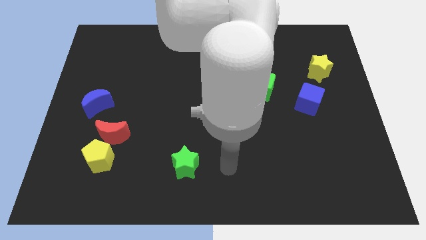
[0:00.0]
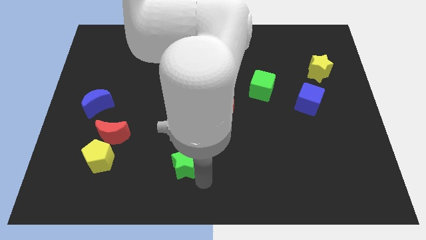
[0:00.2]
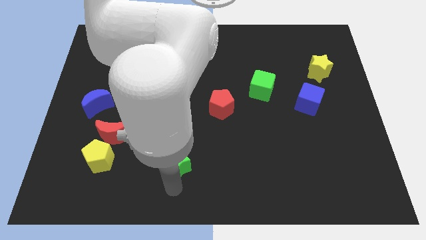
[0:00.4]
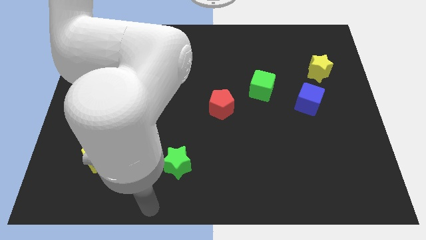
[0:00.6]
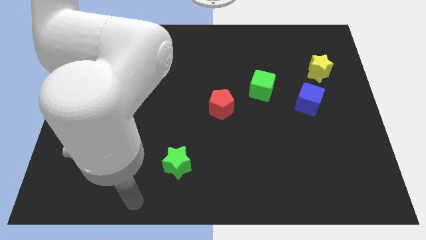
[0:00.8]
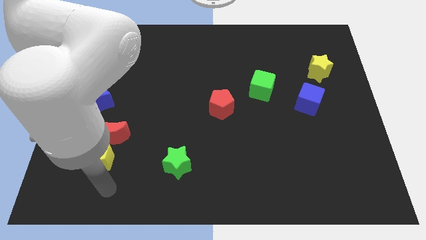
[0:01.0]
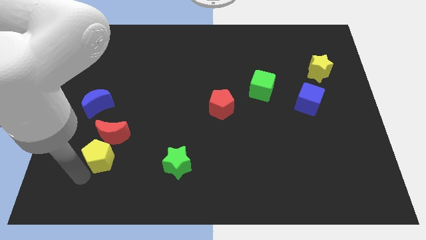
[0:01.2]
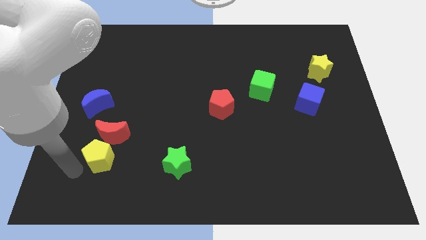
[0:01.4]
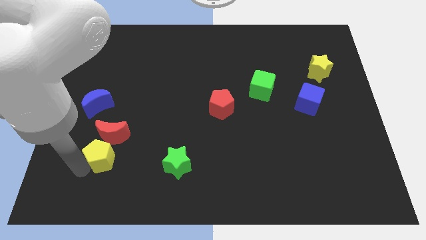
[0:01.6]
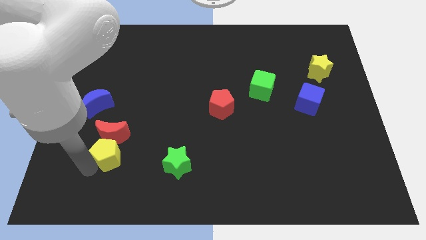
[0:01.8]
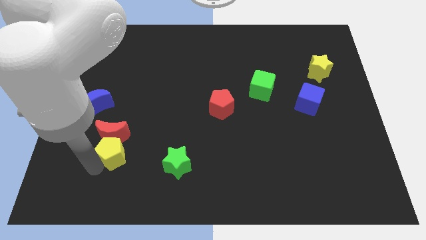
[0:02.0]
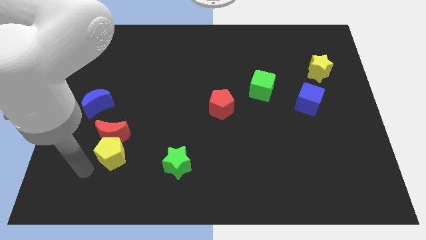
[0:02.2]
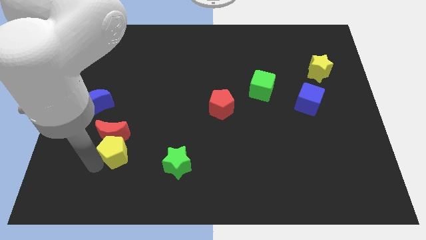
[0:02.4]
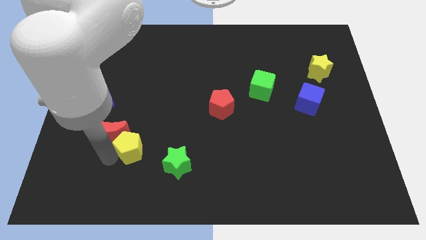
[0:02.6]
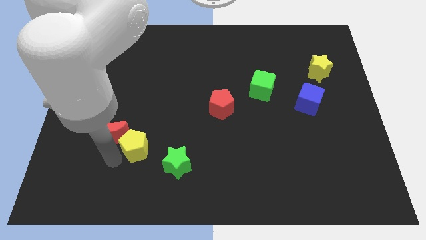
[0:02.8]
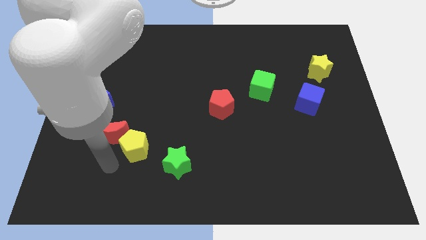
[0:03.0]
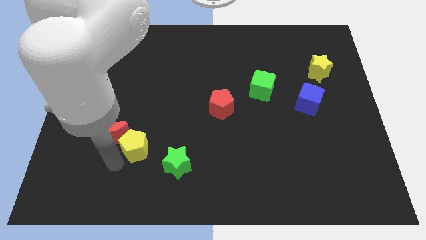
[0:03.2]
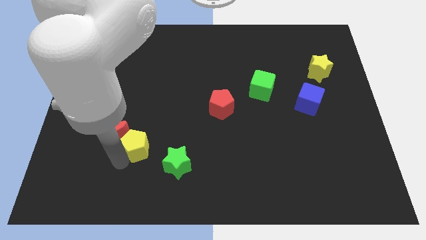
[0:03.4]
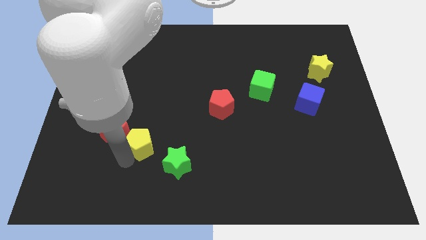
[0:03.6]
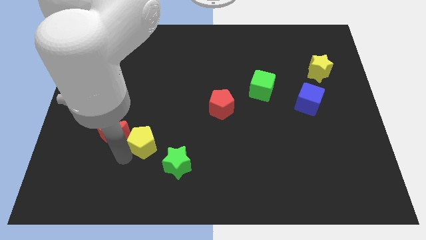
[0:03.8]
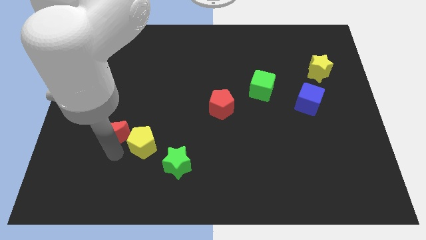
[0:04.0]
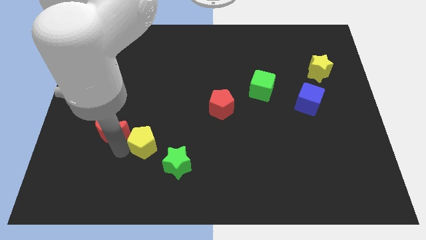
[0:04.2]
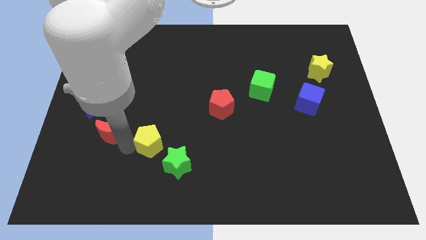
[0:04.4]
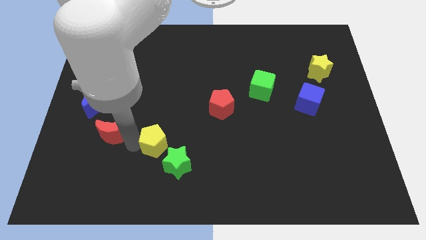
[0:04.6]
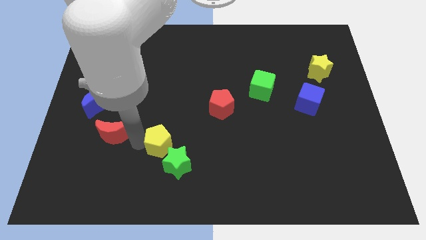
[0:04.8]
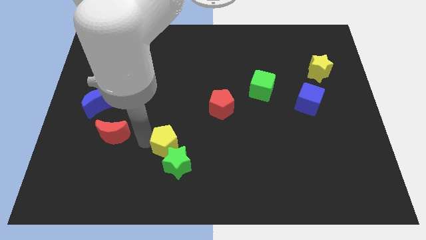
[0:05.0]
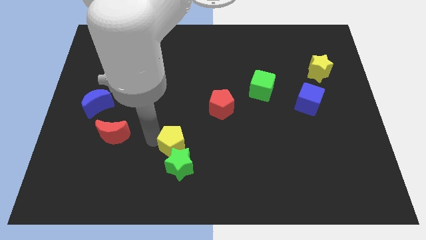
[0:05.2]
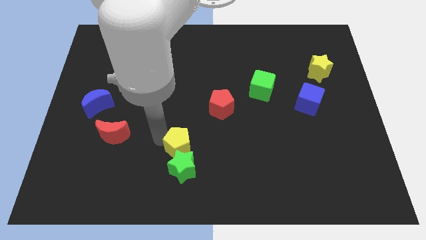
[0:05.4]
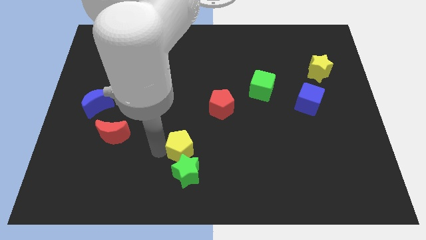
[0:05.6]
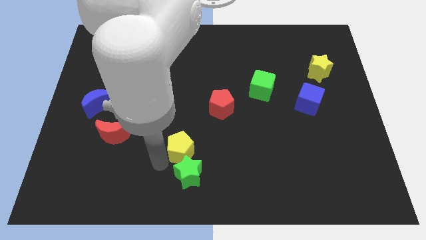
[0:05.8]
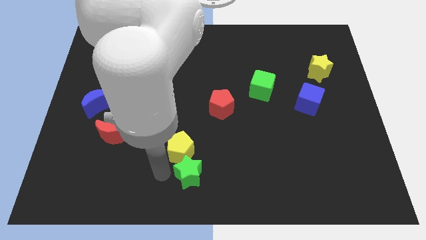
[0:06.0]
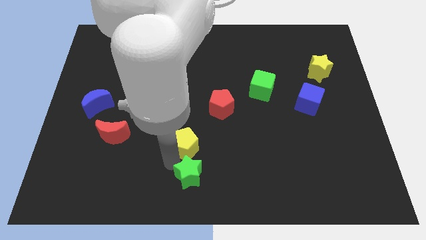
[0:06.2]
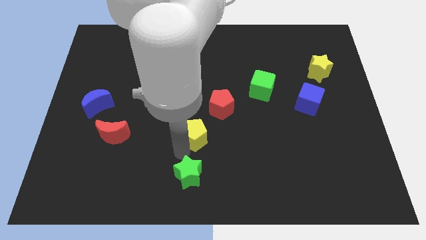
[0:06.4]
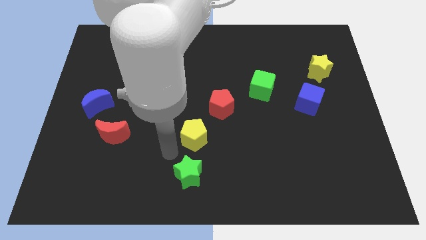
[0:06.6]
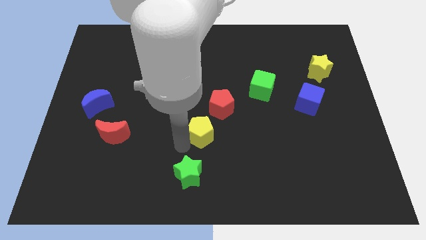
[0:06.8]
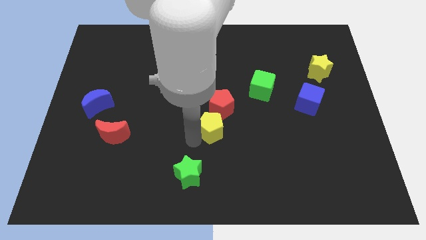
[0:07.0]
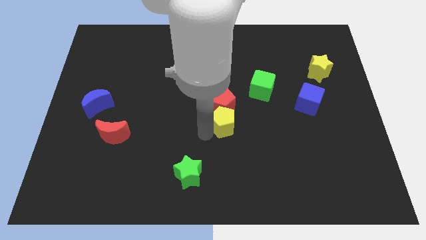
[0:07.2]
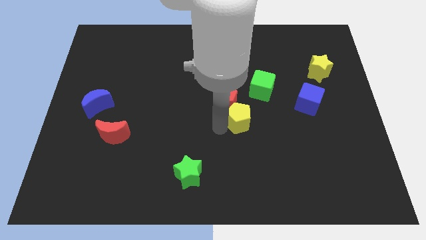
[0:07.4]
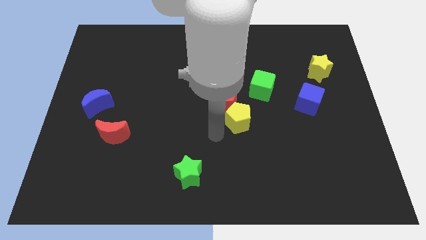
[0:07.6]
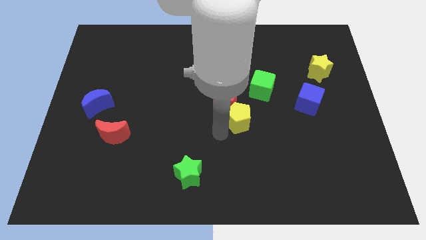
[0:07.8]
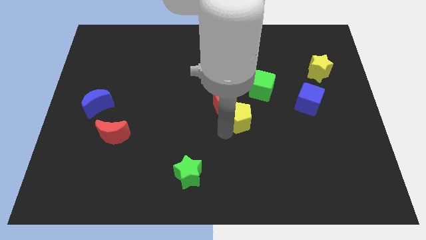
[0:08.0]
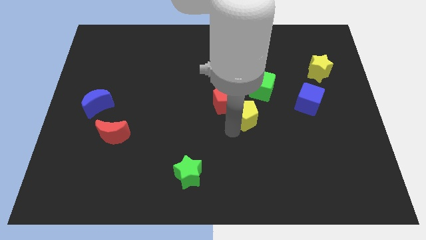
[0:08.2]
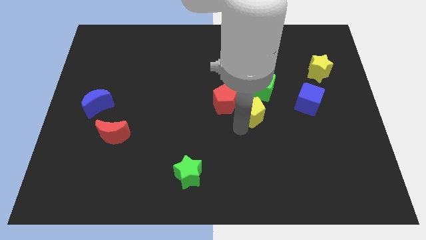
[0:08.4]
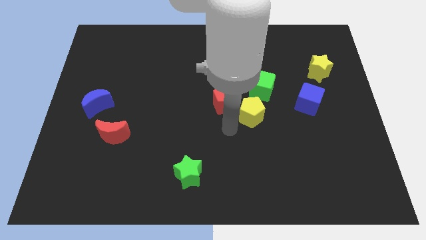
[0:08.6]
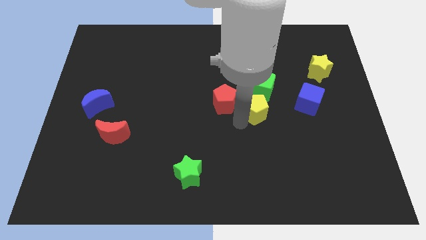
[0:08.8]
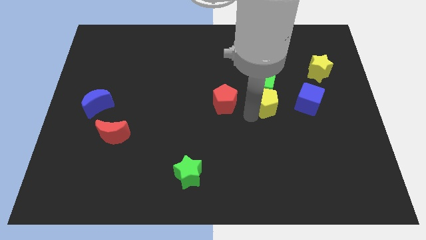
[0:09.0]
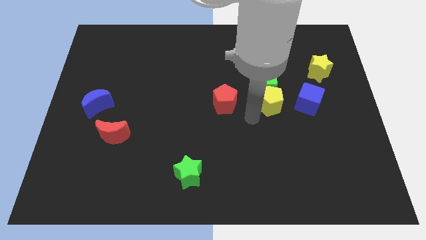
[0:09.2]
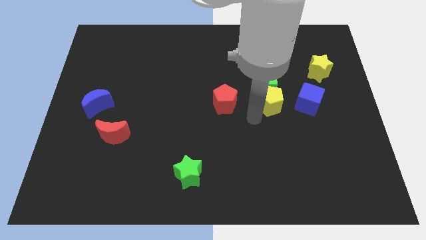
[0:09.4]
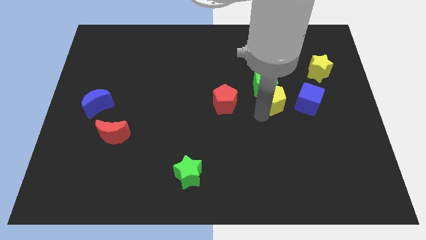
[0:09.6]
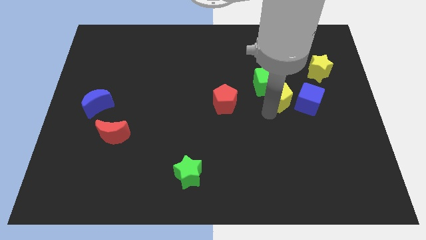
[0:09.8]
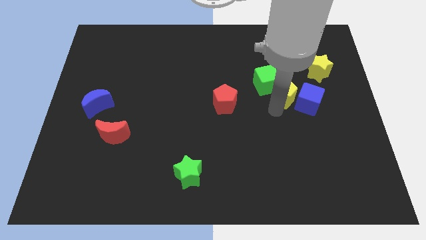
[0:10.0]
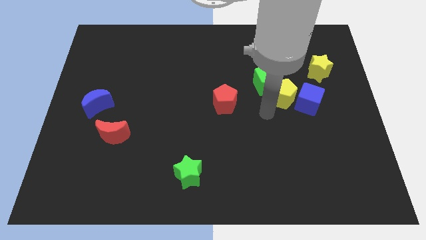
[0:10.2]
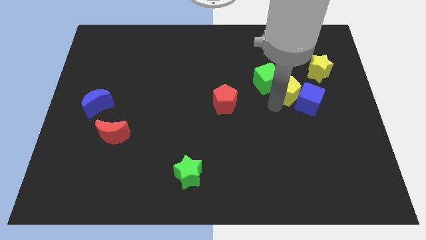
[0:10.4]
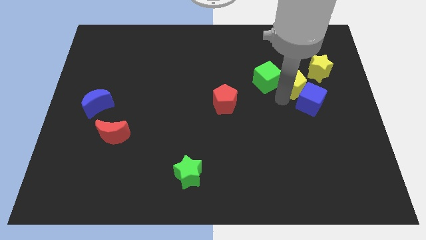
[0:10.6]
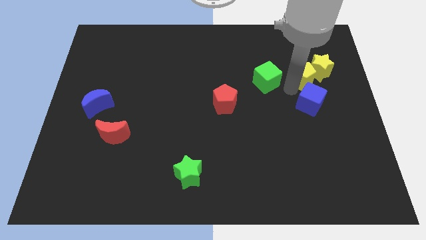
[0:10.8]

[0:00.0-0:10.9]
move the yellow pentagon to the yellow star

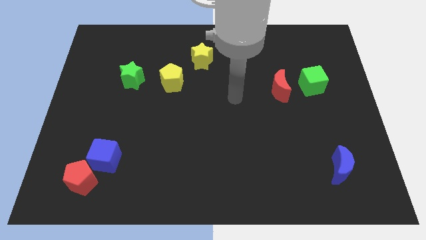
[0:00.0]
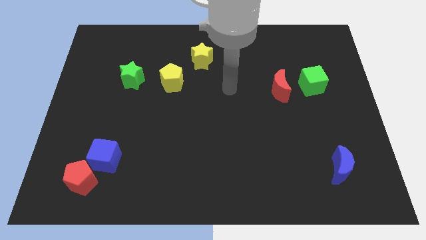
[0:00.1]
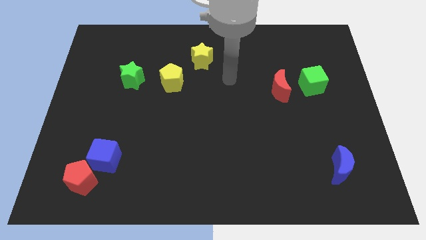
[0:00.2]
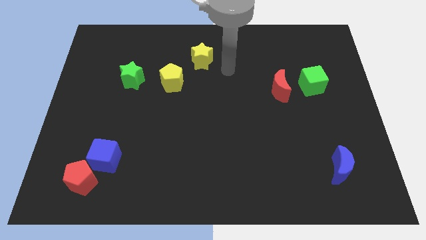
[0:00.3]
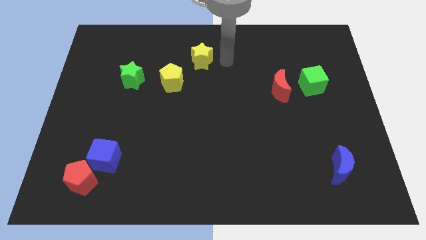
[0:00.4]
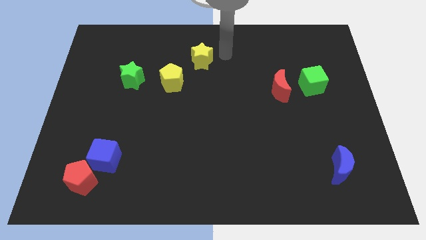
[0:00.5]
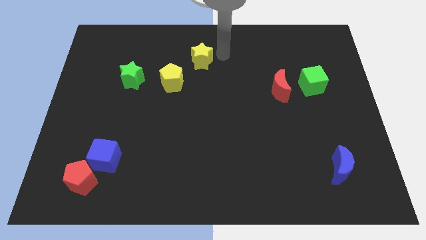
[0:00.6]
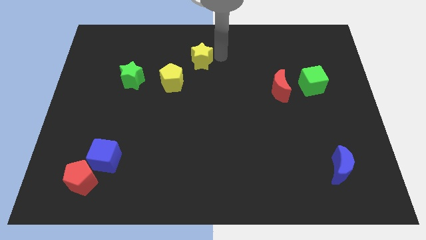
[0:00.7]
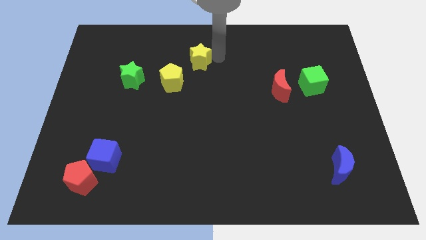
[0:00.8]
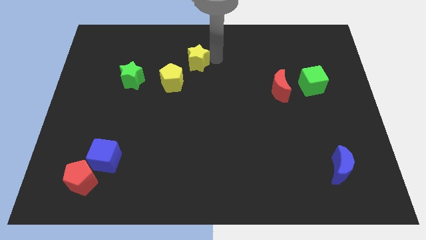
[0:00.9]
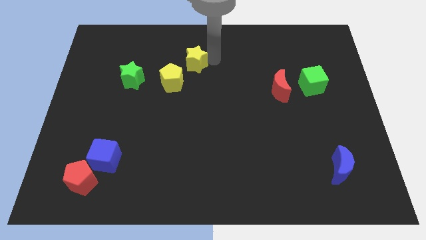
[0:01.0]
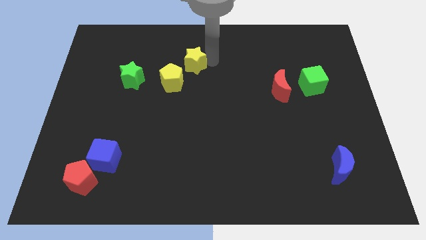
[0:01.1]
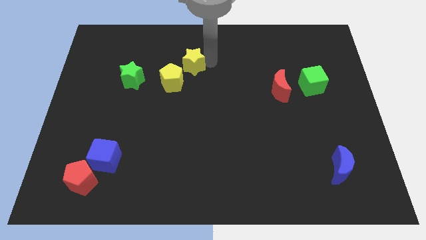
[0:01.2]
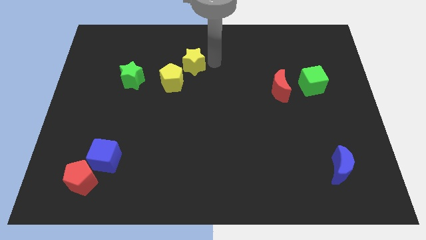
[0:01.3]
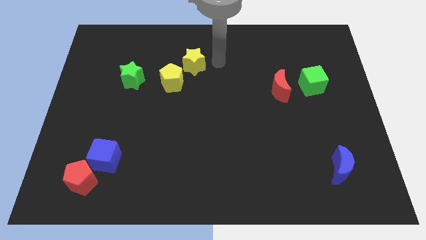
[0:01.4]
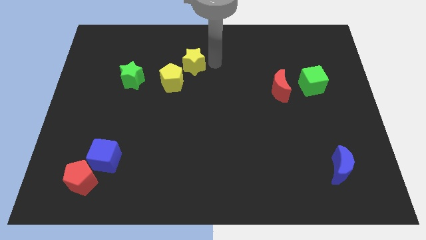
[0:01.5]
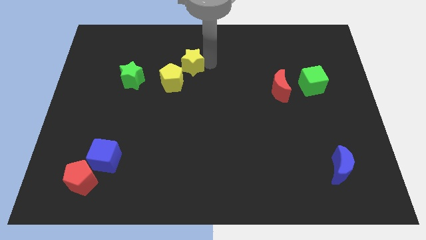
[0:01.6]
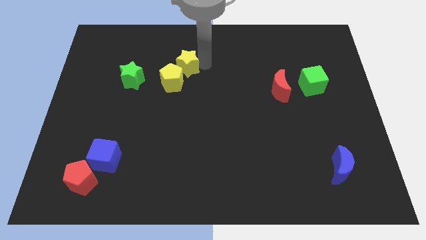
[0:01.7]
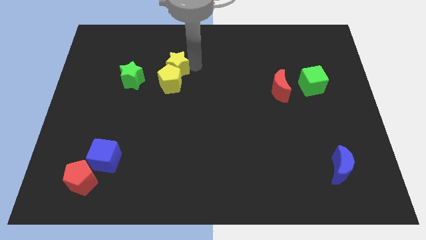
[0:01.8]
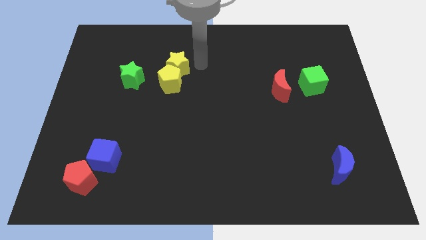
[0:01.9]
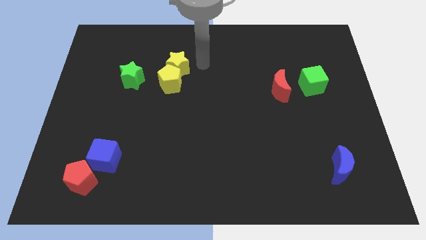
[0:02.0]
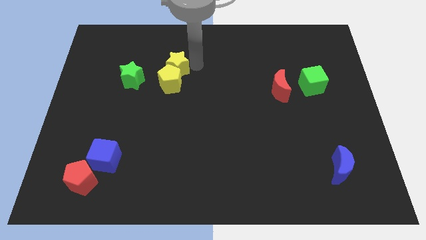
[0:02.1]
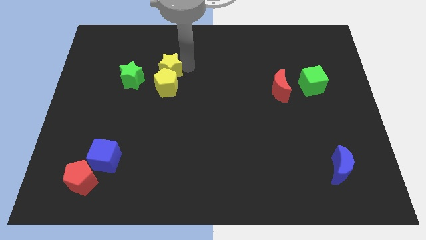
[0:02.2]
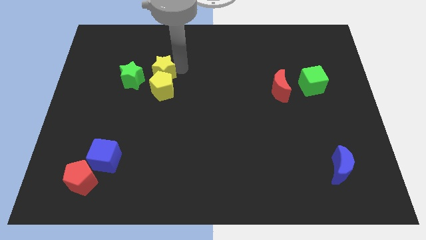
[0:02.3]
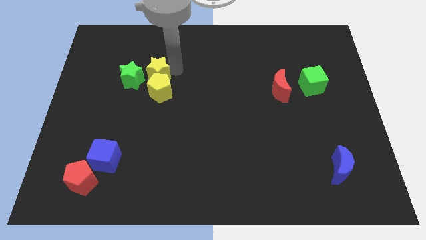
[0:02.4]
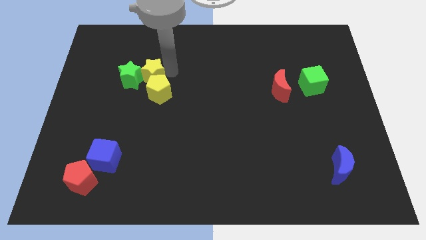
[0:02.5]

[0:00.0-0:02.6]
push the yellow star close to the green star
